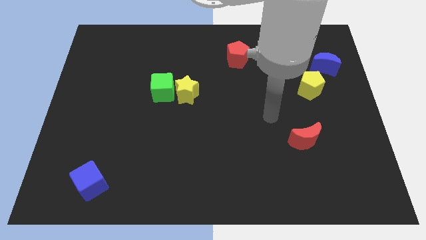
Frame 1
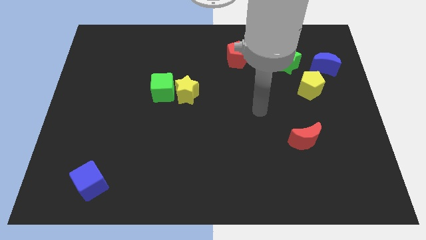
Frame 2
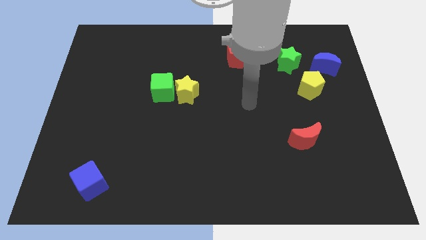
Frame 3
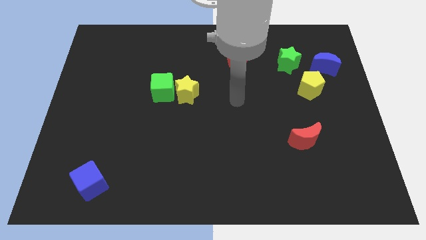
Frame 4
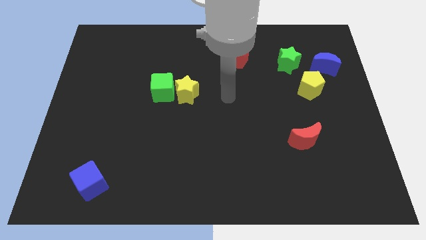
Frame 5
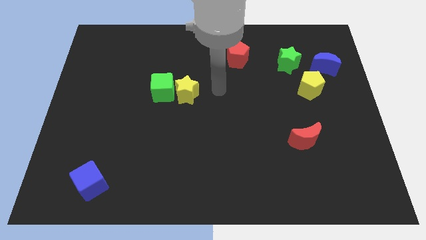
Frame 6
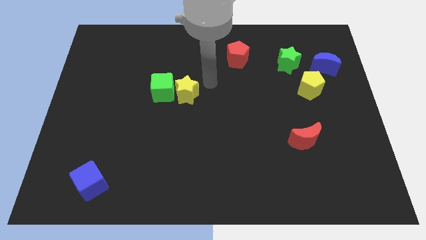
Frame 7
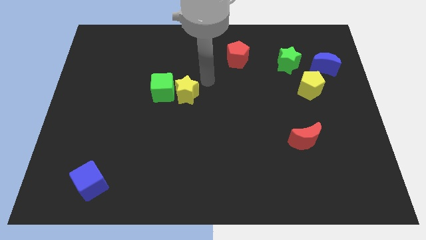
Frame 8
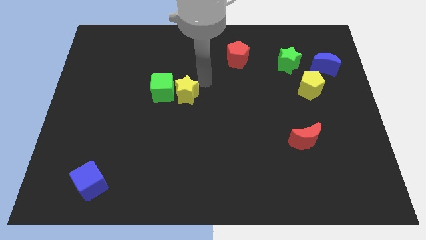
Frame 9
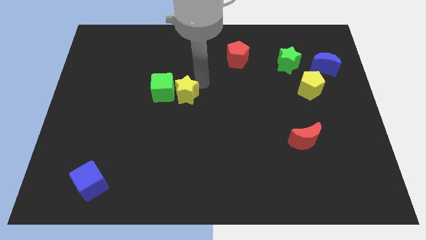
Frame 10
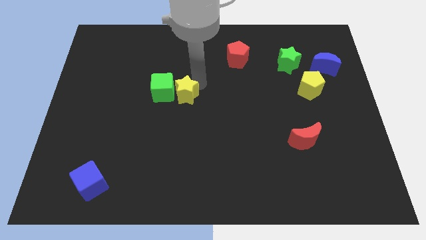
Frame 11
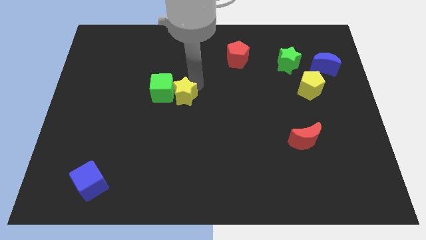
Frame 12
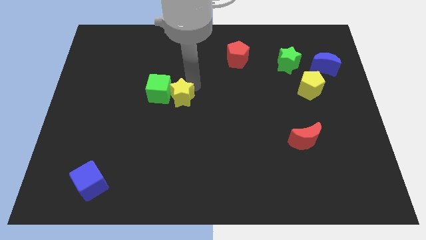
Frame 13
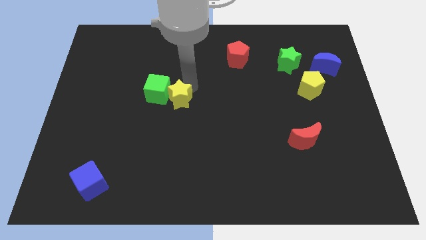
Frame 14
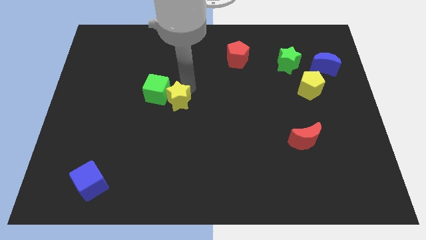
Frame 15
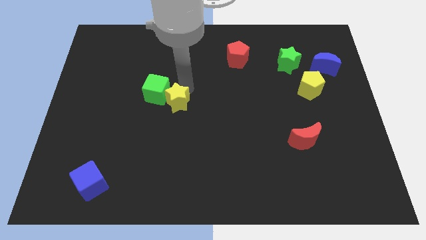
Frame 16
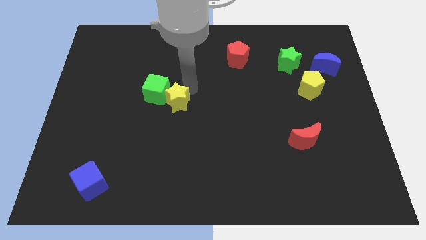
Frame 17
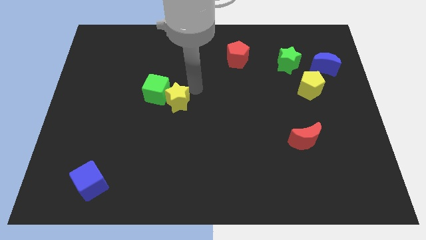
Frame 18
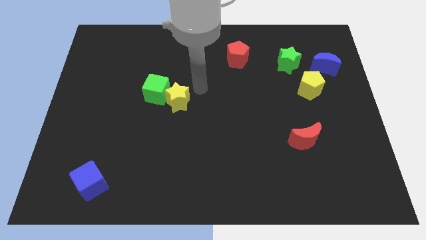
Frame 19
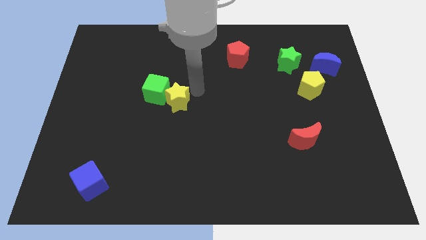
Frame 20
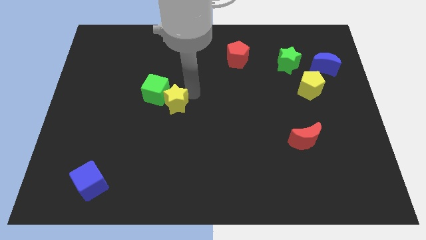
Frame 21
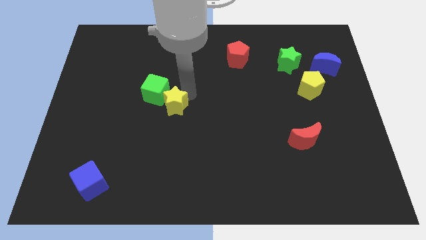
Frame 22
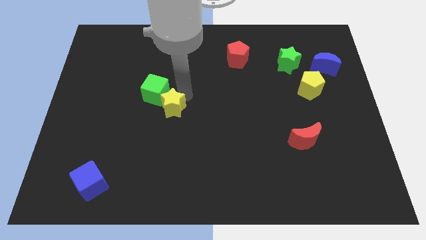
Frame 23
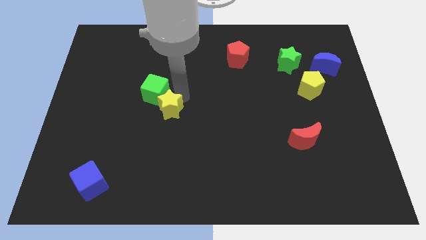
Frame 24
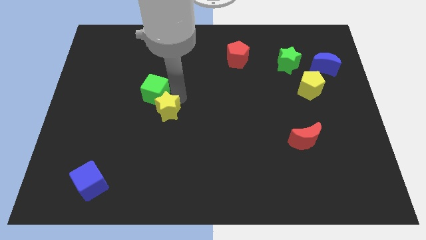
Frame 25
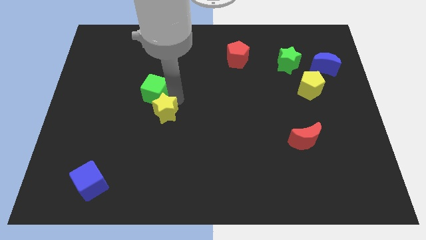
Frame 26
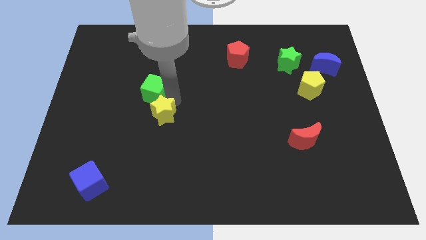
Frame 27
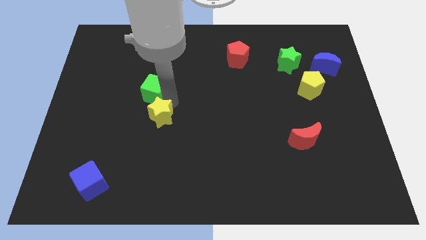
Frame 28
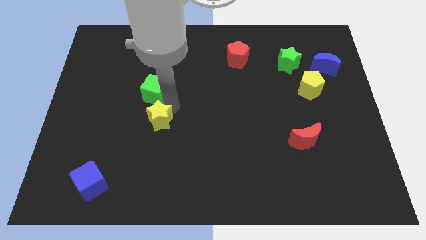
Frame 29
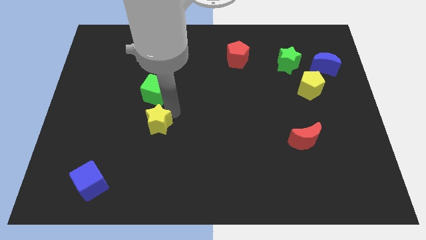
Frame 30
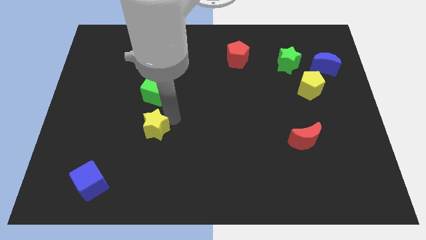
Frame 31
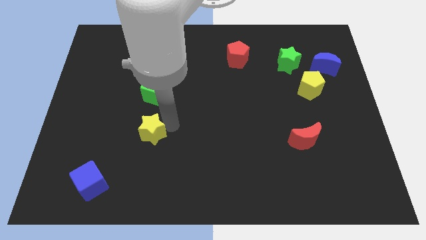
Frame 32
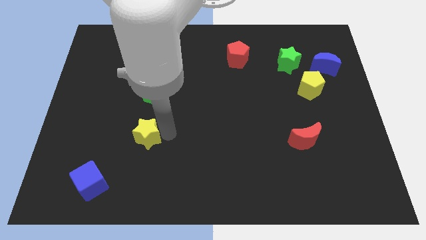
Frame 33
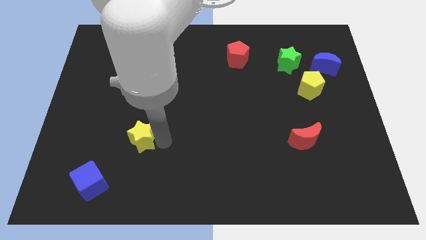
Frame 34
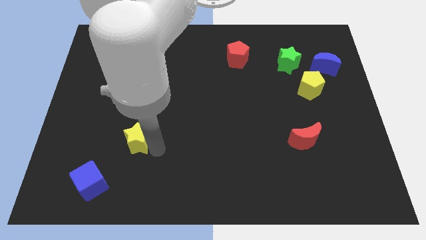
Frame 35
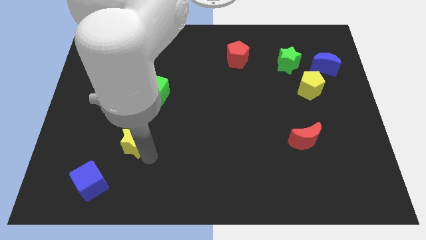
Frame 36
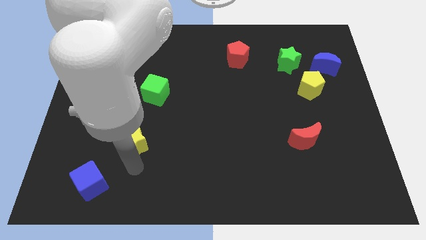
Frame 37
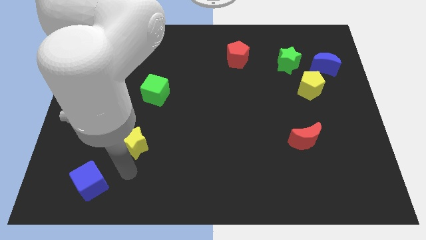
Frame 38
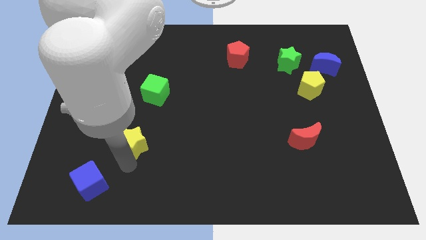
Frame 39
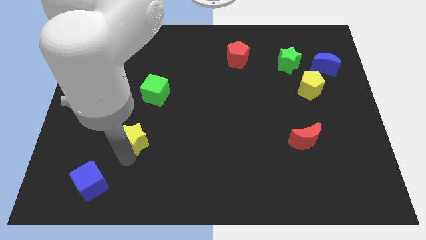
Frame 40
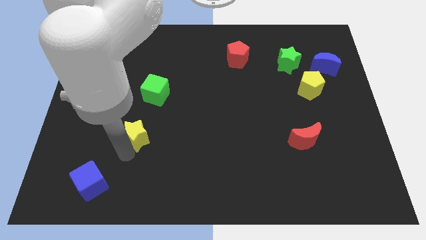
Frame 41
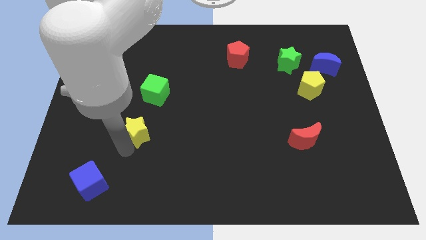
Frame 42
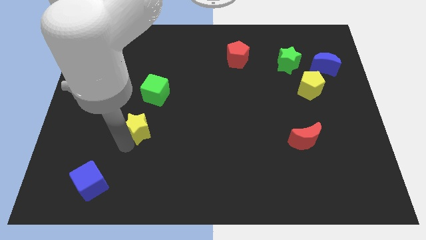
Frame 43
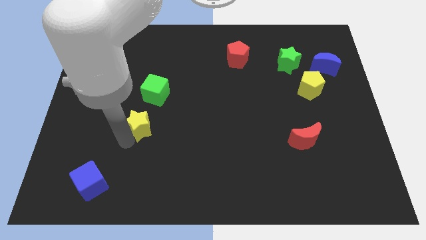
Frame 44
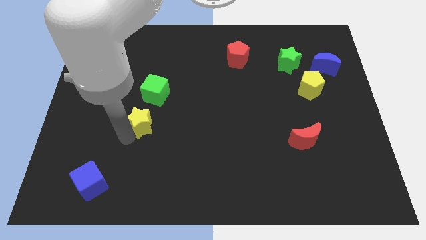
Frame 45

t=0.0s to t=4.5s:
push the yellow star a bit left

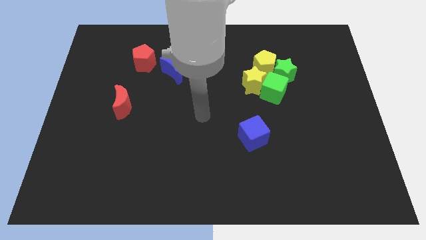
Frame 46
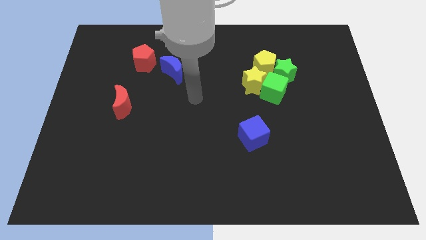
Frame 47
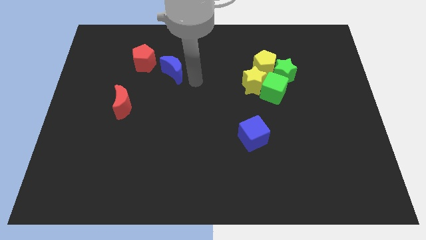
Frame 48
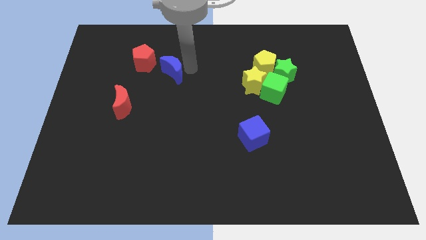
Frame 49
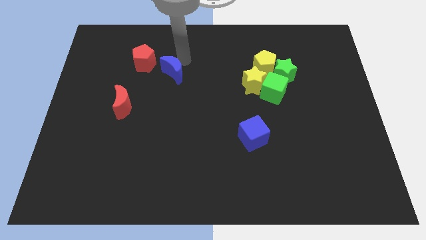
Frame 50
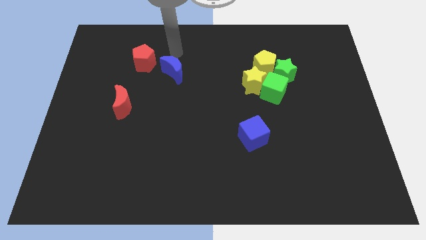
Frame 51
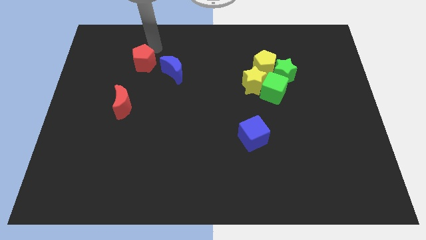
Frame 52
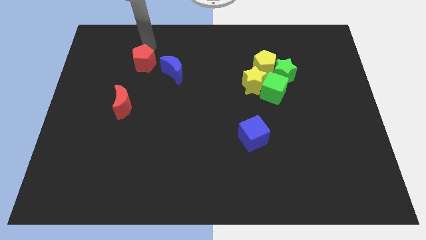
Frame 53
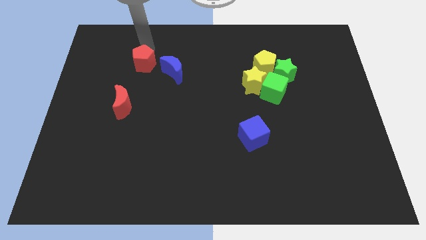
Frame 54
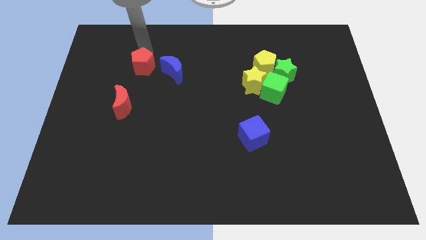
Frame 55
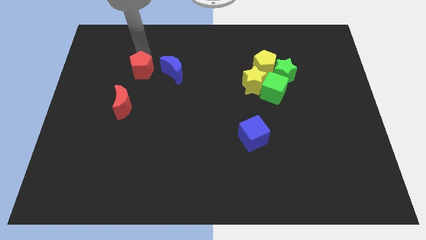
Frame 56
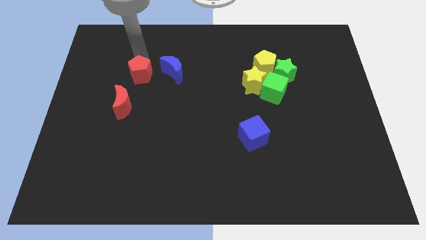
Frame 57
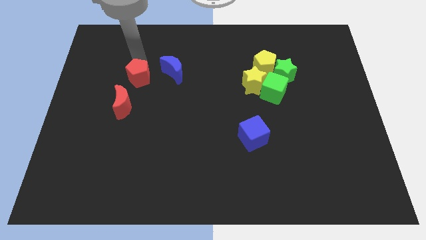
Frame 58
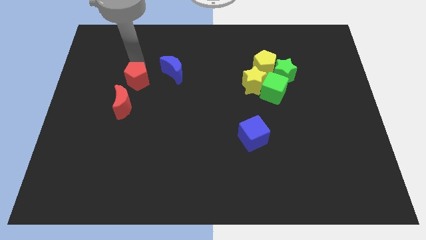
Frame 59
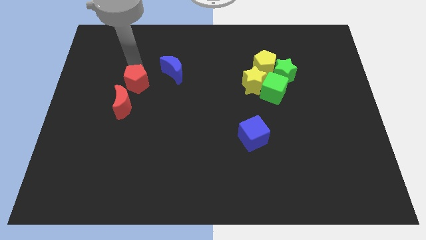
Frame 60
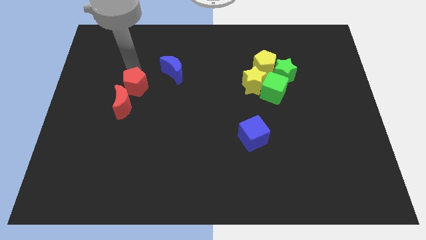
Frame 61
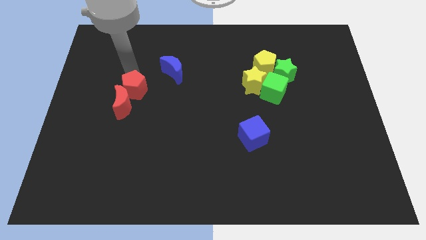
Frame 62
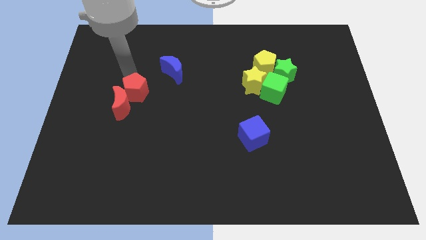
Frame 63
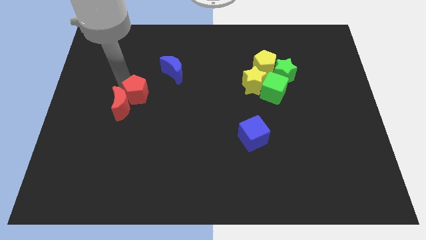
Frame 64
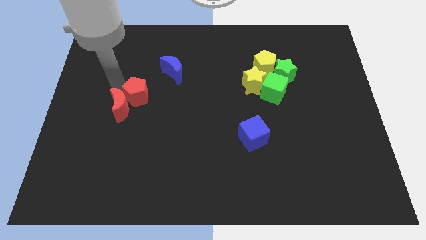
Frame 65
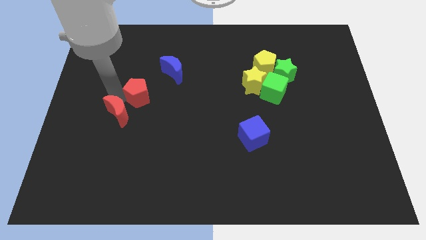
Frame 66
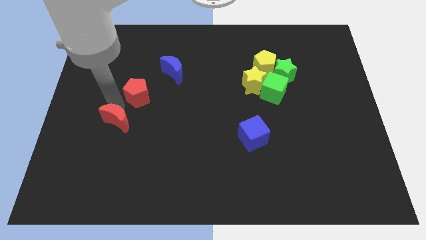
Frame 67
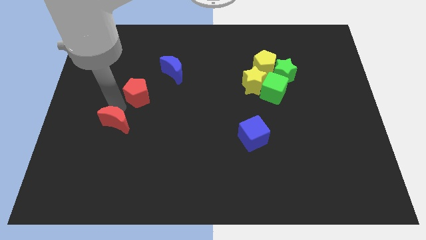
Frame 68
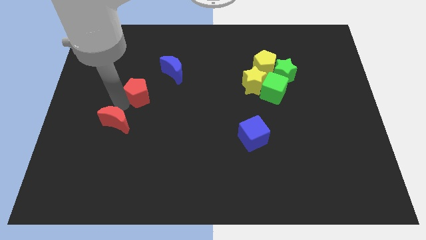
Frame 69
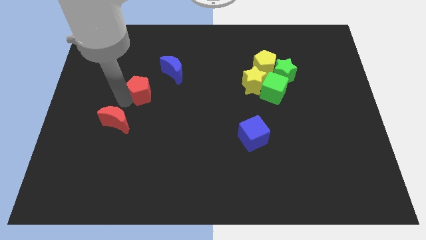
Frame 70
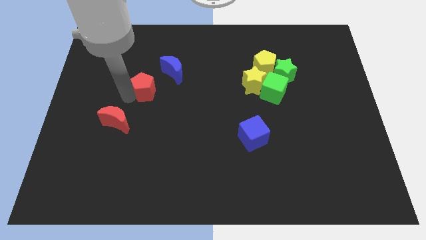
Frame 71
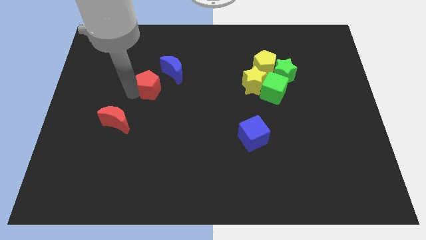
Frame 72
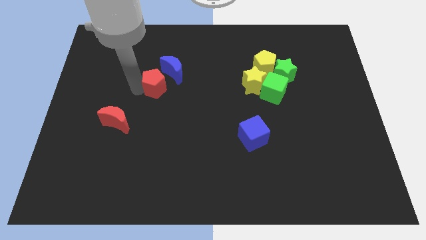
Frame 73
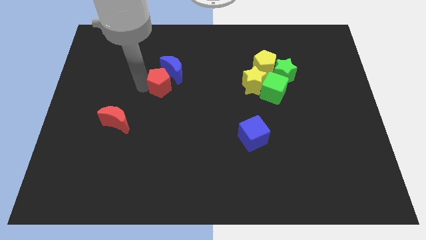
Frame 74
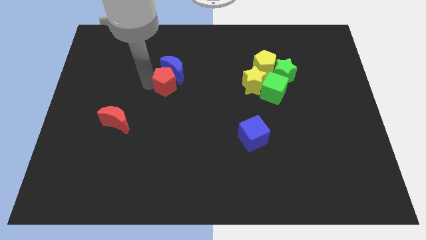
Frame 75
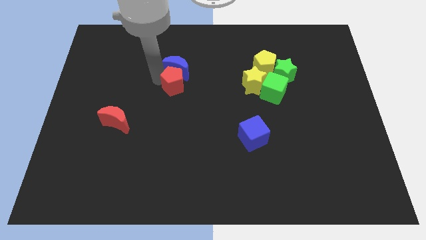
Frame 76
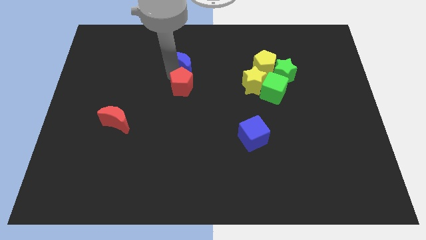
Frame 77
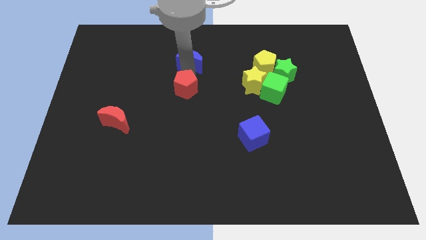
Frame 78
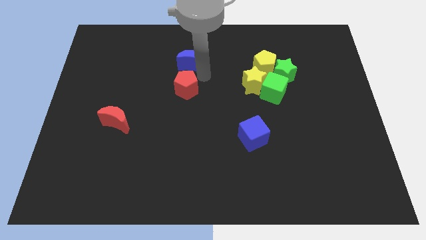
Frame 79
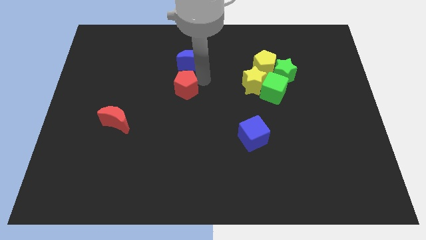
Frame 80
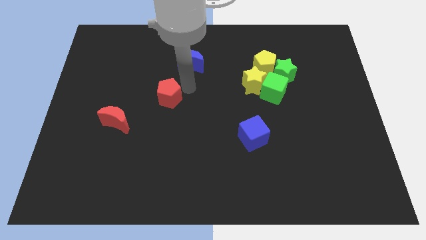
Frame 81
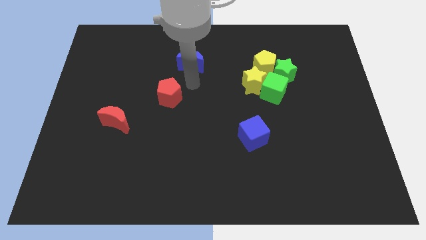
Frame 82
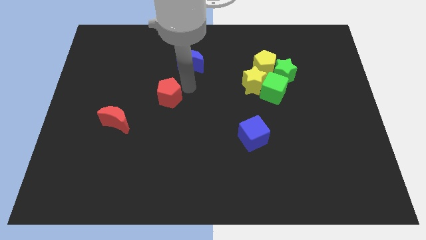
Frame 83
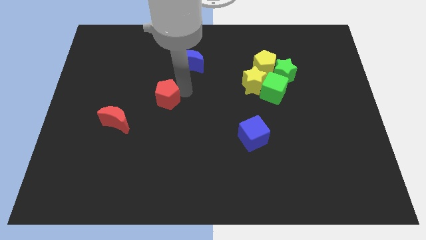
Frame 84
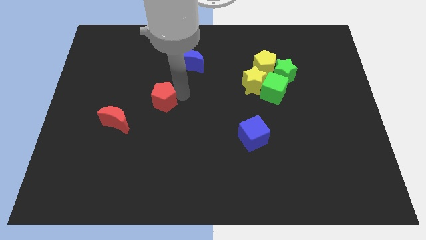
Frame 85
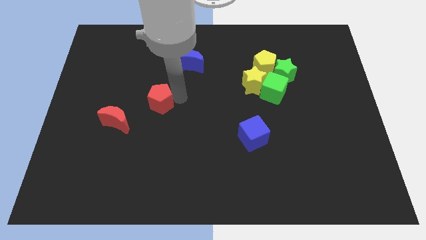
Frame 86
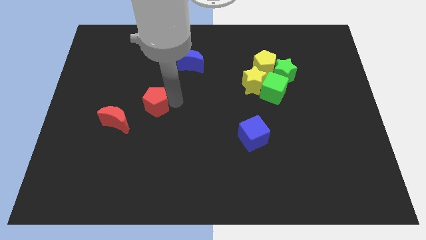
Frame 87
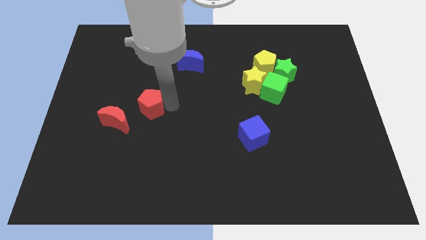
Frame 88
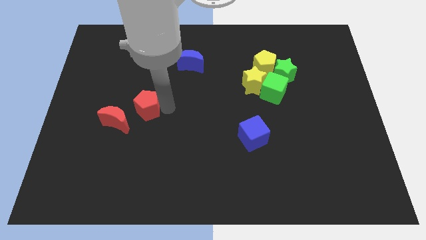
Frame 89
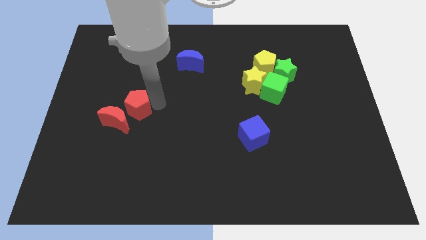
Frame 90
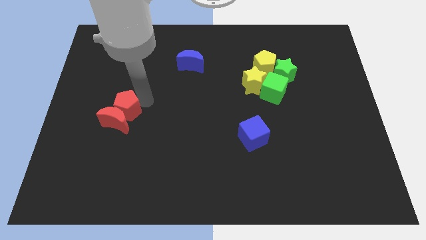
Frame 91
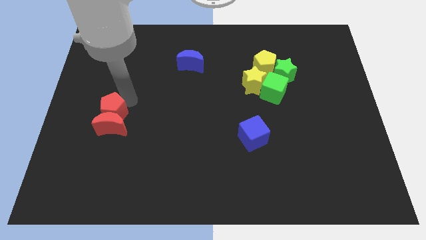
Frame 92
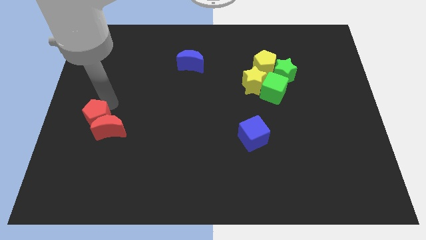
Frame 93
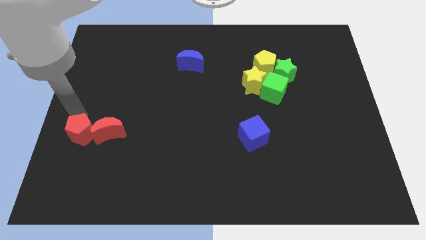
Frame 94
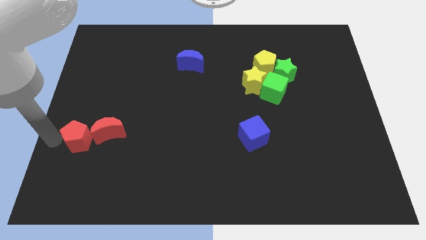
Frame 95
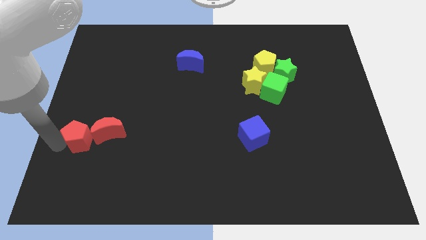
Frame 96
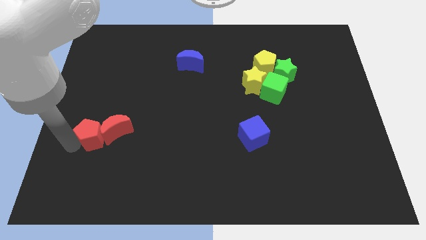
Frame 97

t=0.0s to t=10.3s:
slide the red pentagon downwards
